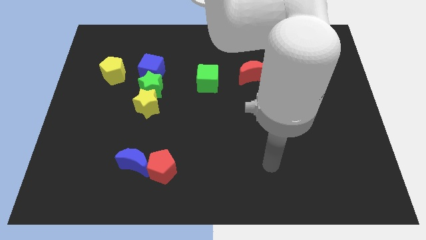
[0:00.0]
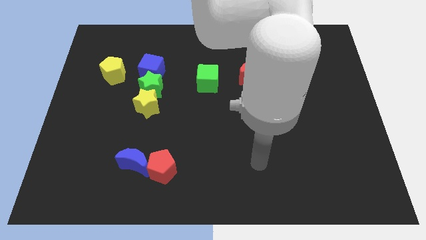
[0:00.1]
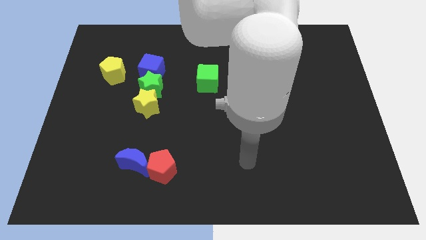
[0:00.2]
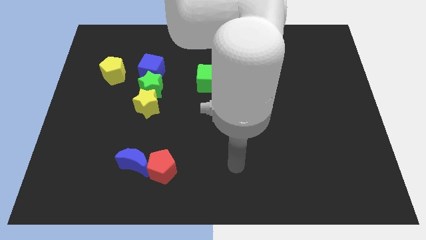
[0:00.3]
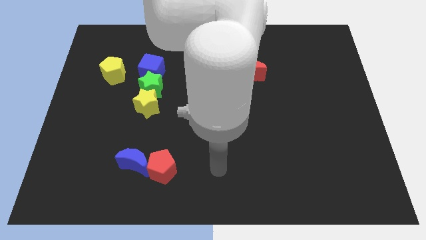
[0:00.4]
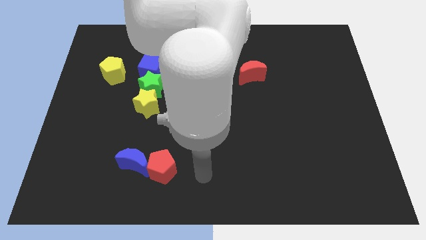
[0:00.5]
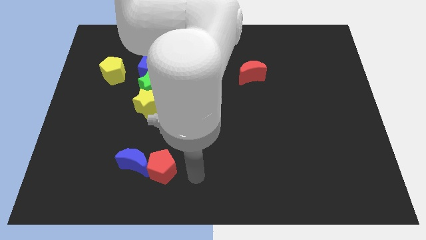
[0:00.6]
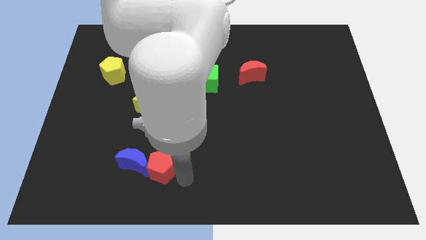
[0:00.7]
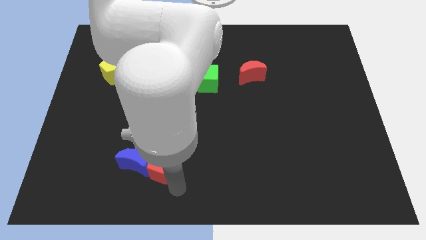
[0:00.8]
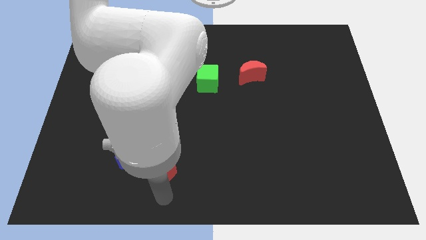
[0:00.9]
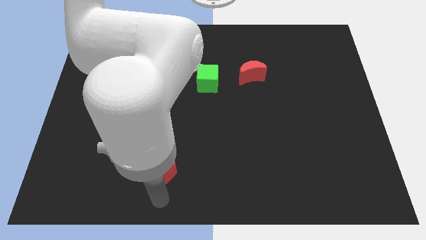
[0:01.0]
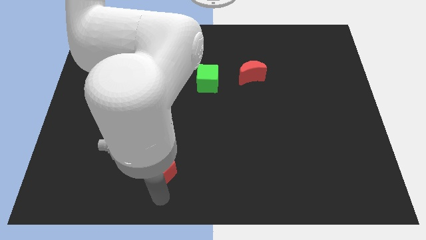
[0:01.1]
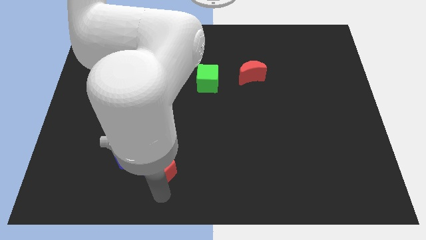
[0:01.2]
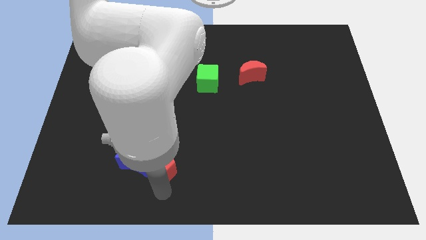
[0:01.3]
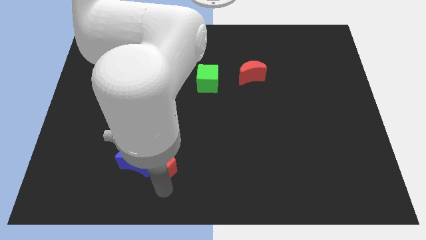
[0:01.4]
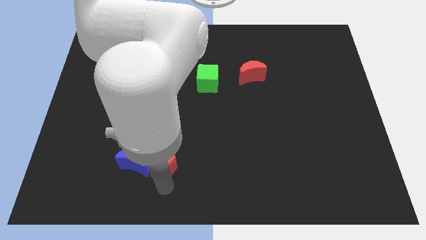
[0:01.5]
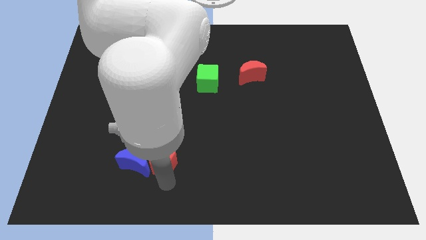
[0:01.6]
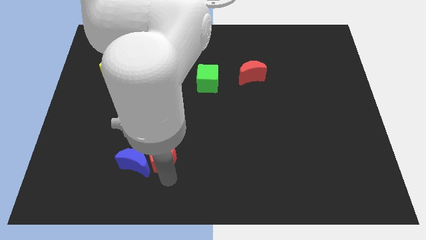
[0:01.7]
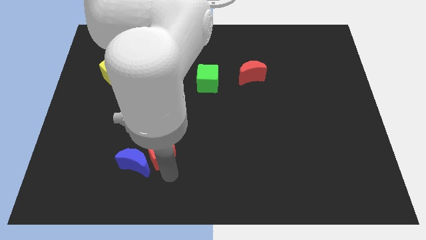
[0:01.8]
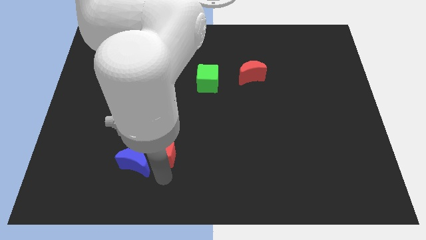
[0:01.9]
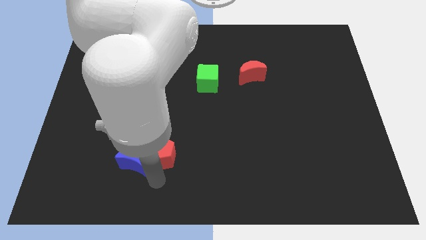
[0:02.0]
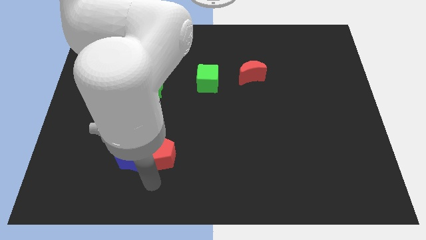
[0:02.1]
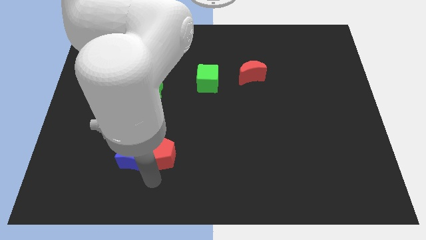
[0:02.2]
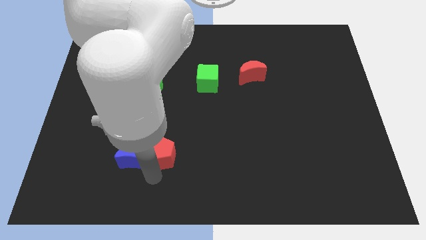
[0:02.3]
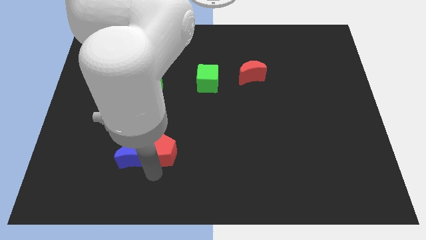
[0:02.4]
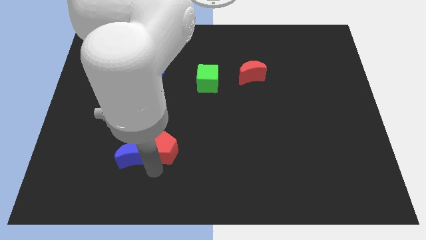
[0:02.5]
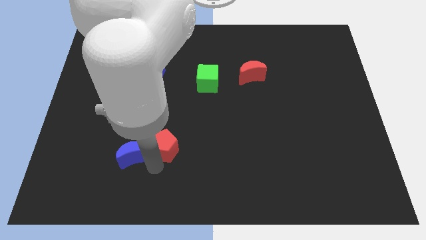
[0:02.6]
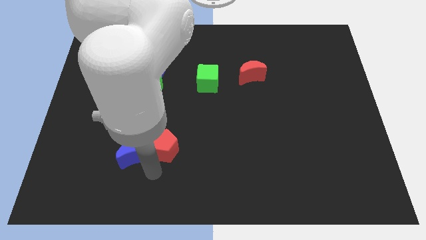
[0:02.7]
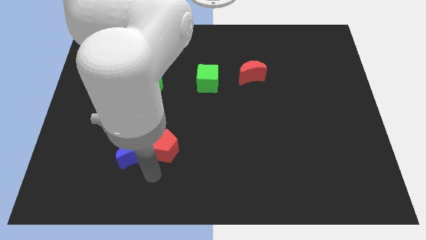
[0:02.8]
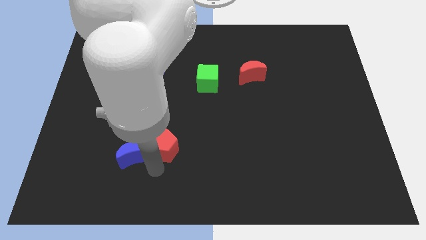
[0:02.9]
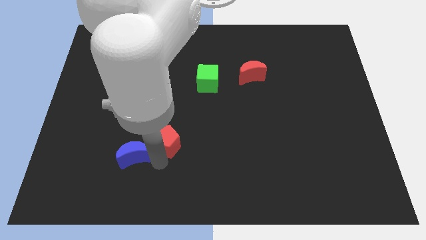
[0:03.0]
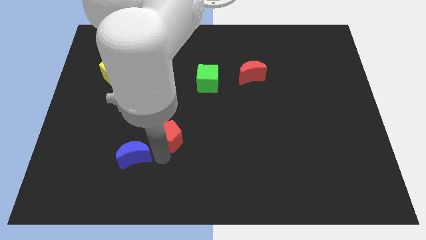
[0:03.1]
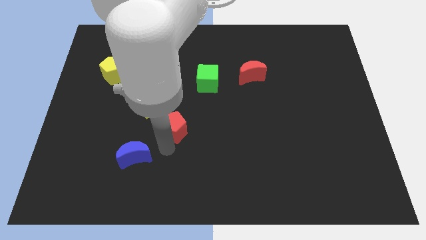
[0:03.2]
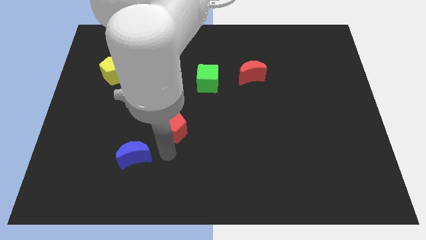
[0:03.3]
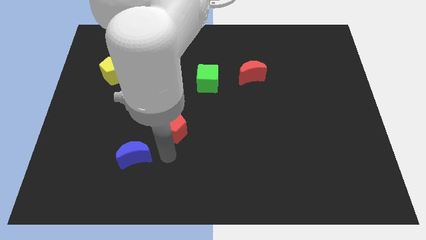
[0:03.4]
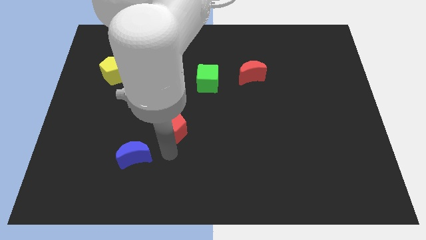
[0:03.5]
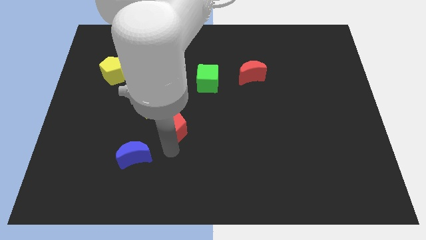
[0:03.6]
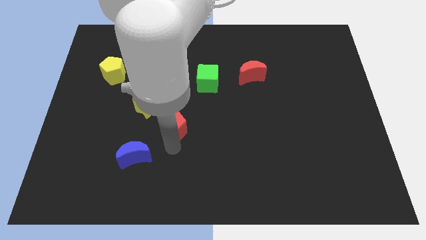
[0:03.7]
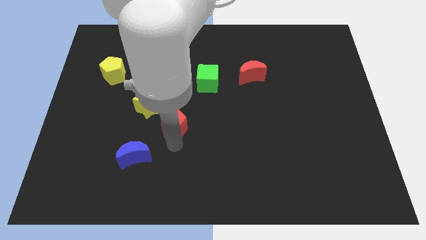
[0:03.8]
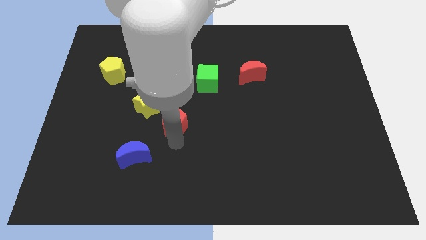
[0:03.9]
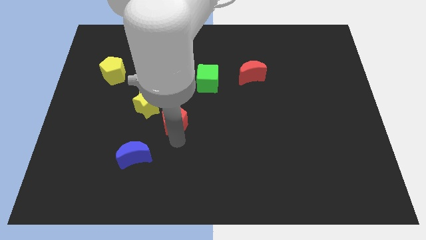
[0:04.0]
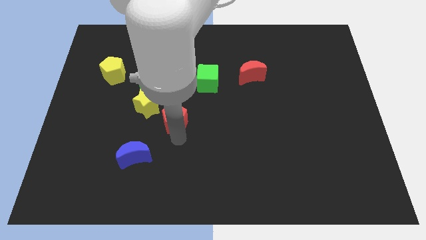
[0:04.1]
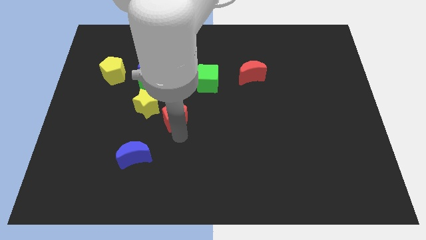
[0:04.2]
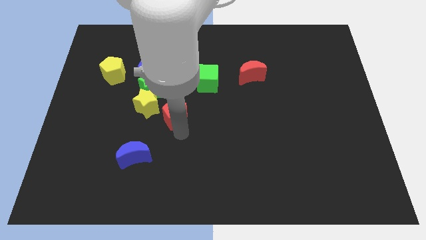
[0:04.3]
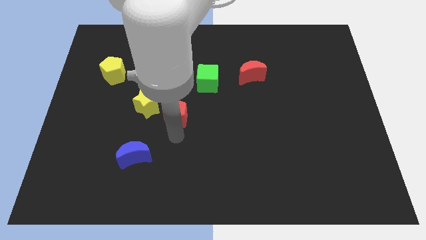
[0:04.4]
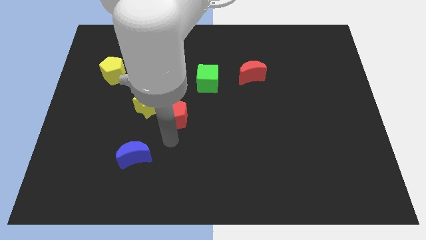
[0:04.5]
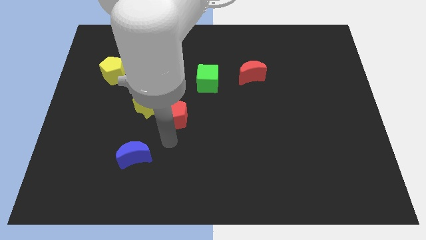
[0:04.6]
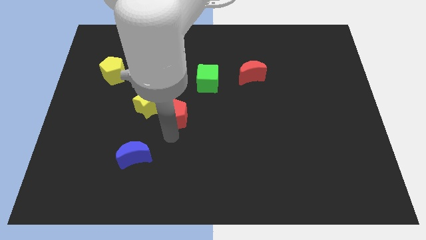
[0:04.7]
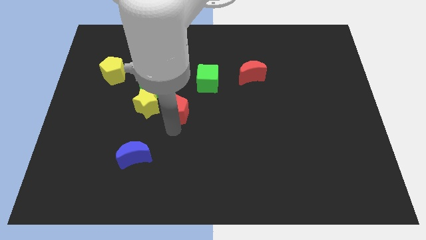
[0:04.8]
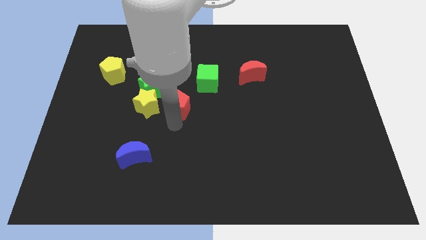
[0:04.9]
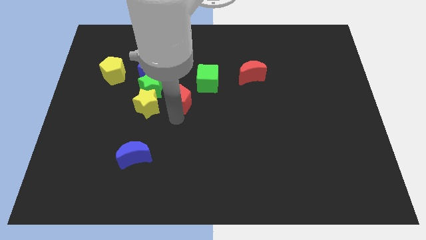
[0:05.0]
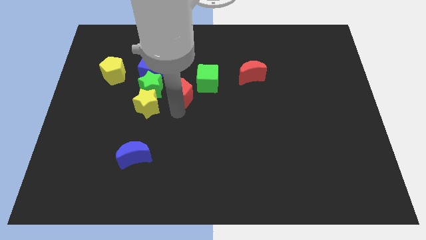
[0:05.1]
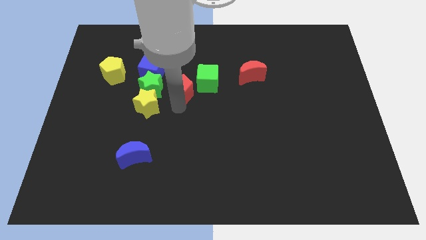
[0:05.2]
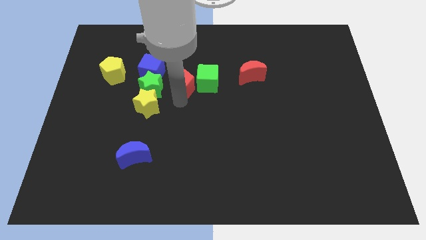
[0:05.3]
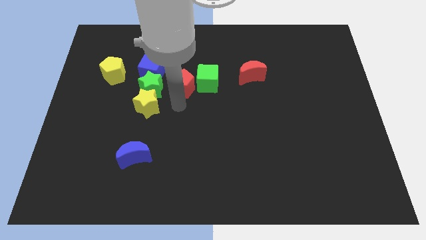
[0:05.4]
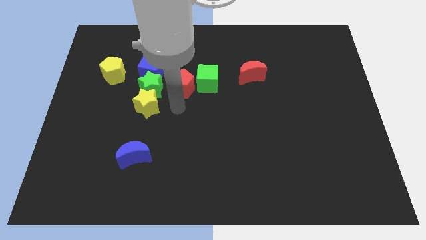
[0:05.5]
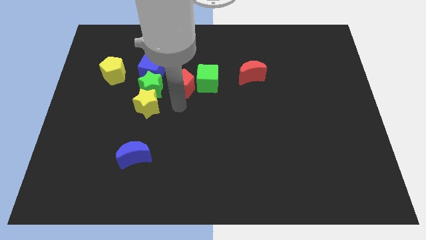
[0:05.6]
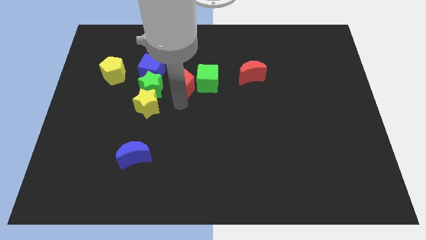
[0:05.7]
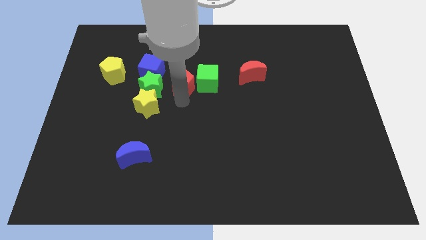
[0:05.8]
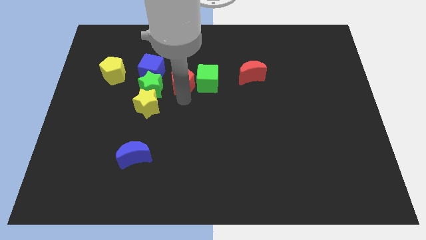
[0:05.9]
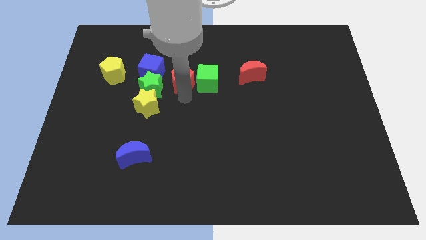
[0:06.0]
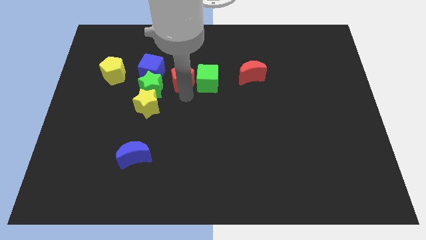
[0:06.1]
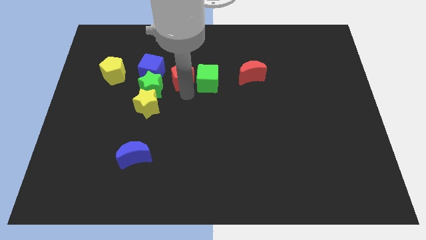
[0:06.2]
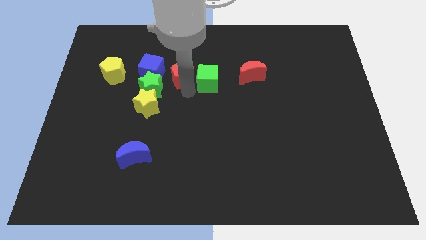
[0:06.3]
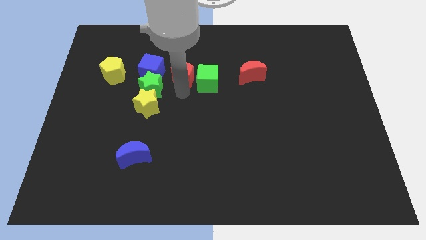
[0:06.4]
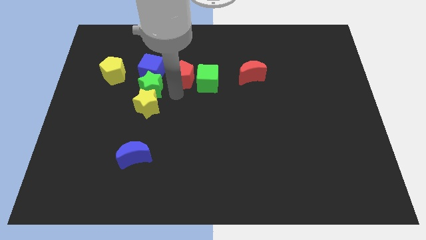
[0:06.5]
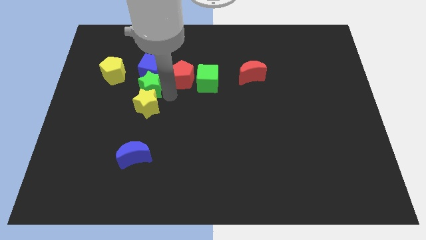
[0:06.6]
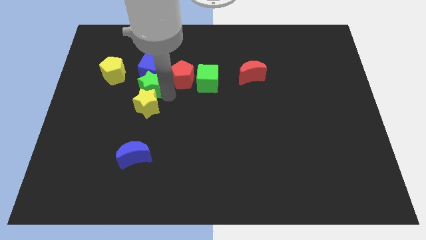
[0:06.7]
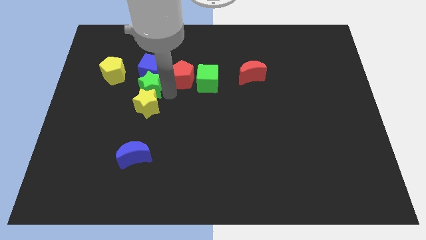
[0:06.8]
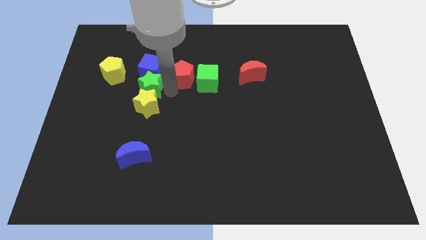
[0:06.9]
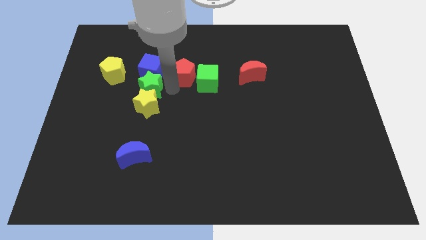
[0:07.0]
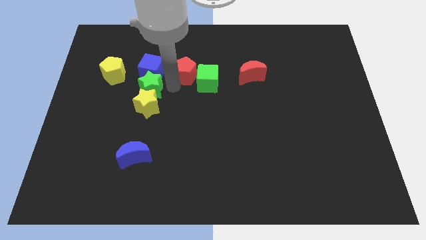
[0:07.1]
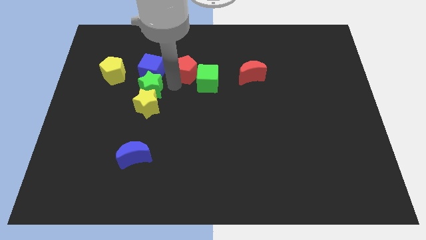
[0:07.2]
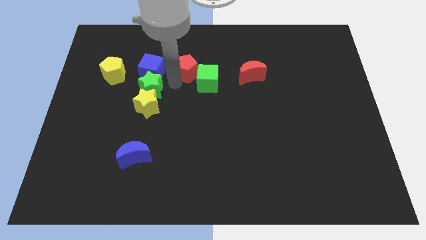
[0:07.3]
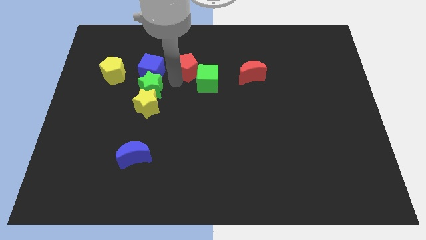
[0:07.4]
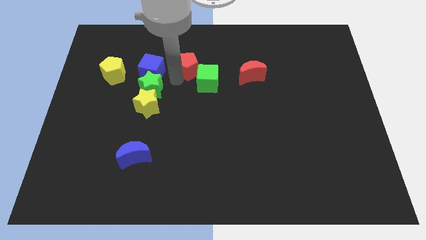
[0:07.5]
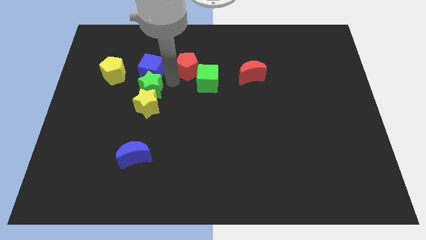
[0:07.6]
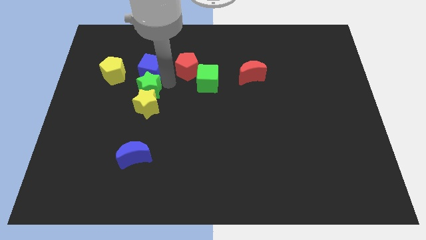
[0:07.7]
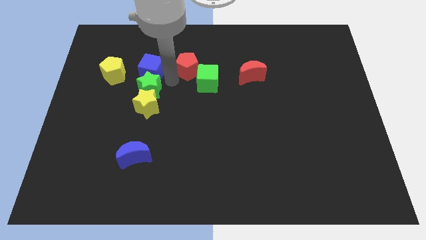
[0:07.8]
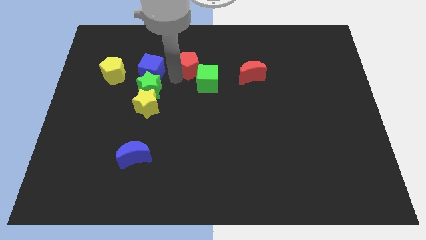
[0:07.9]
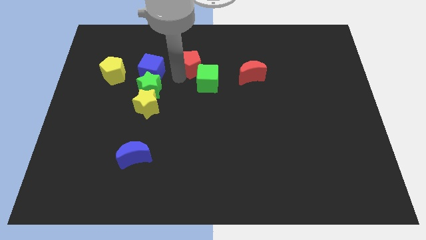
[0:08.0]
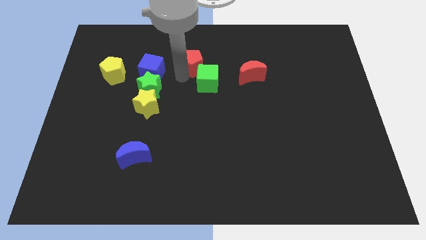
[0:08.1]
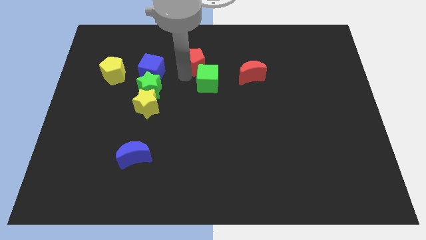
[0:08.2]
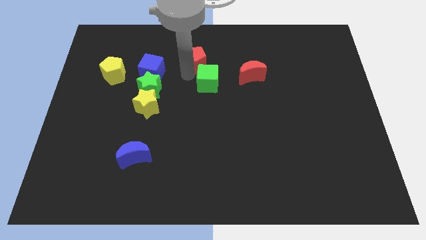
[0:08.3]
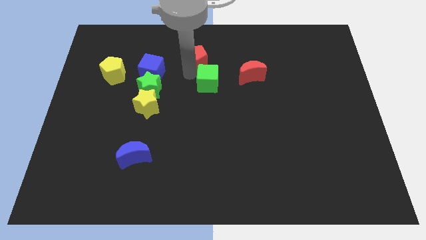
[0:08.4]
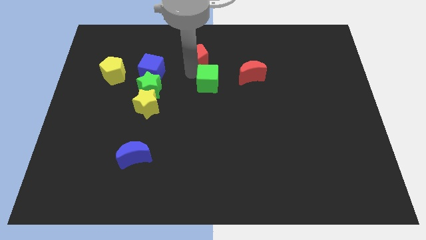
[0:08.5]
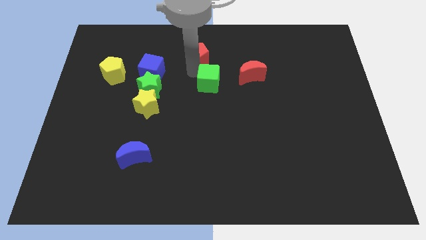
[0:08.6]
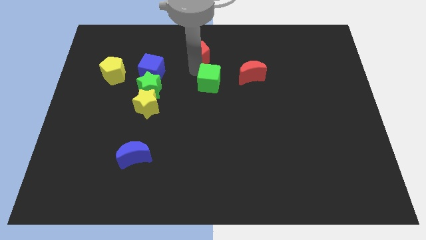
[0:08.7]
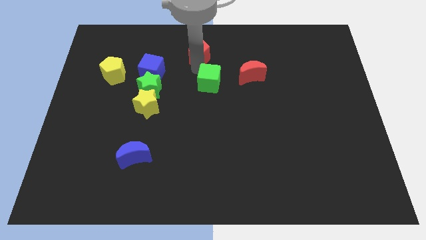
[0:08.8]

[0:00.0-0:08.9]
put the red pentagon to the top
